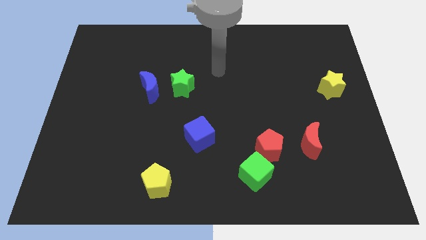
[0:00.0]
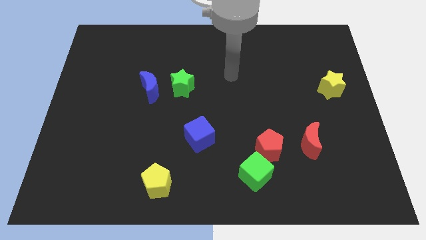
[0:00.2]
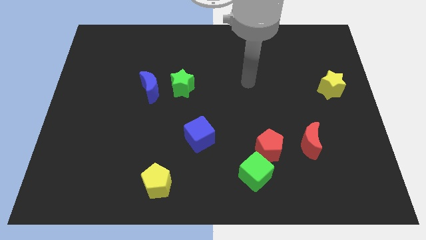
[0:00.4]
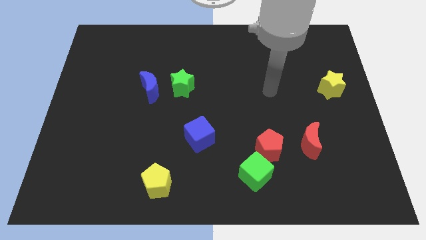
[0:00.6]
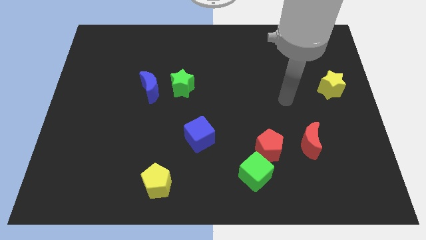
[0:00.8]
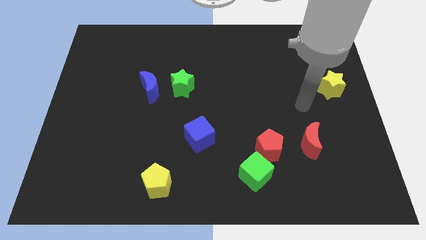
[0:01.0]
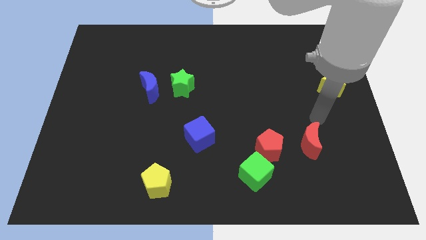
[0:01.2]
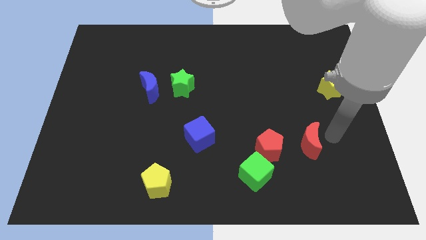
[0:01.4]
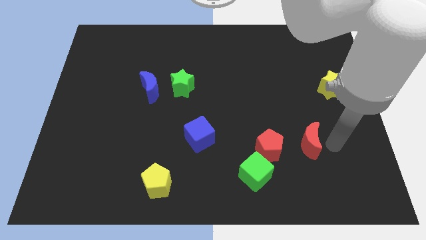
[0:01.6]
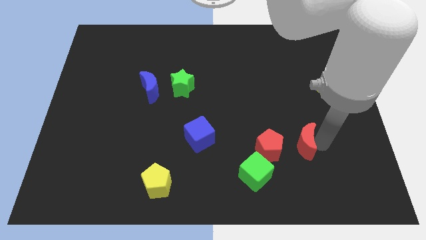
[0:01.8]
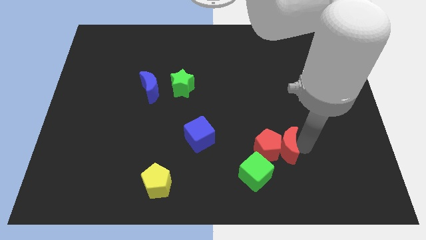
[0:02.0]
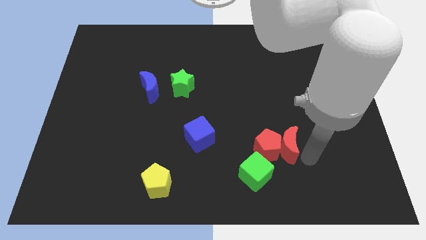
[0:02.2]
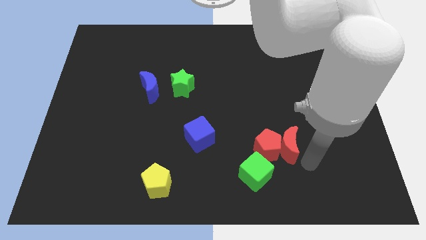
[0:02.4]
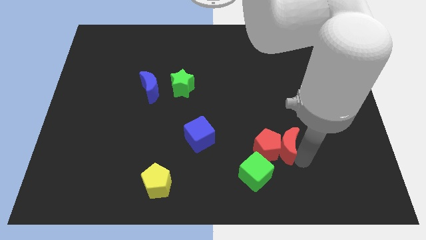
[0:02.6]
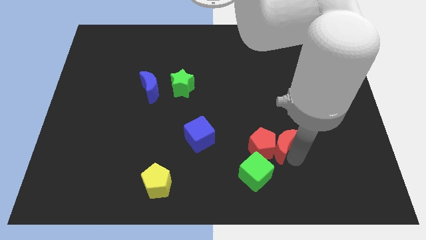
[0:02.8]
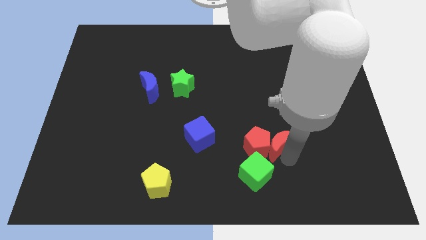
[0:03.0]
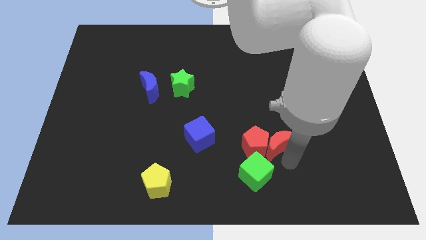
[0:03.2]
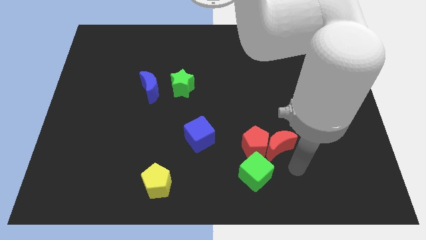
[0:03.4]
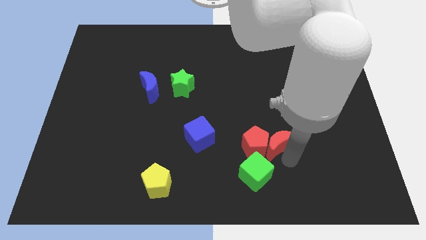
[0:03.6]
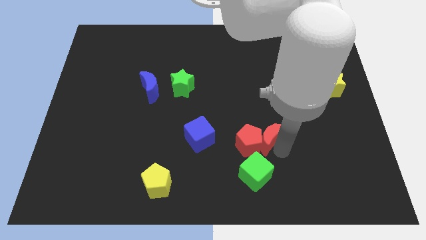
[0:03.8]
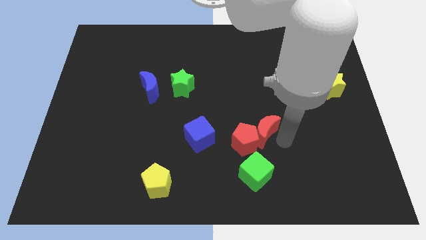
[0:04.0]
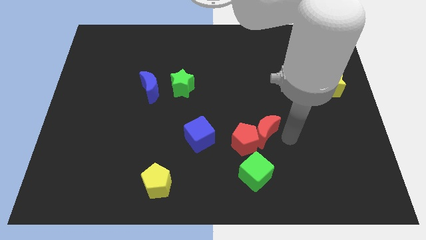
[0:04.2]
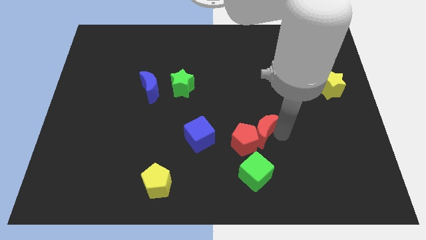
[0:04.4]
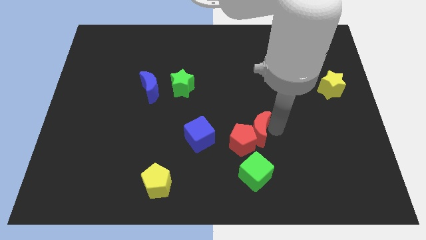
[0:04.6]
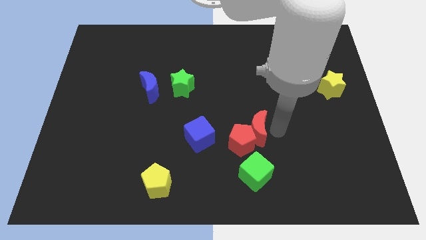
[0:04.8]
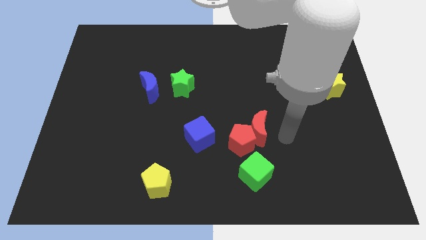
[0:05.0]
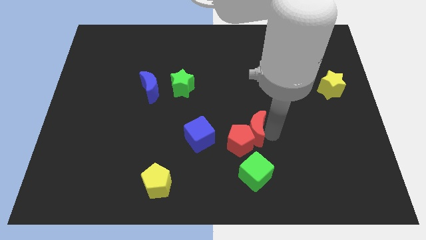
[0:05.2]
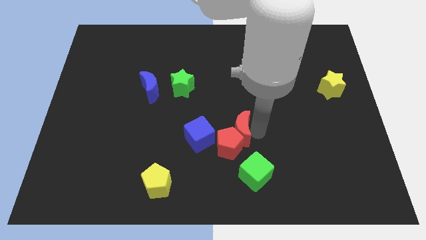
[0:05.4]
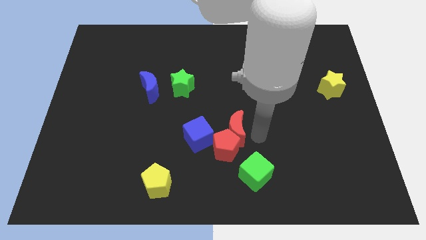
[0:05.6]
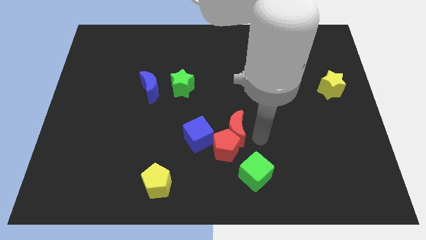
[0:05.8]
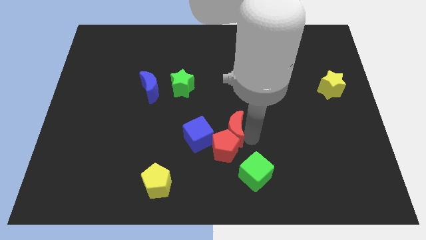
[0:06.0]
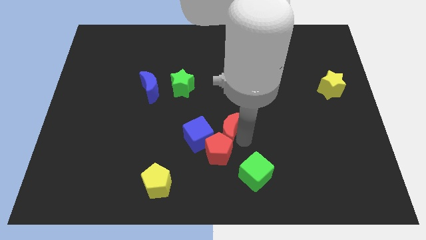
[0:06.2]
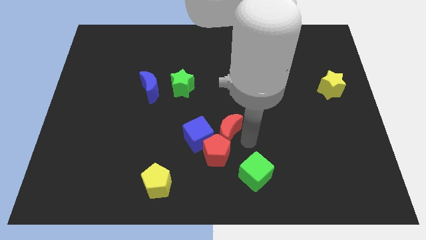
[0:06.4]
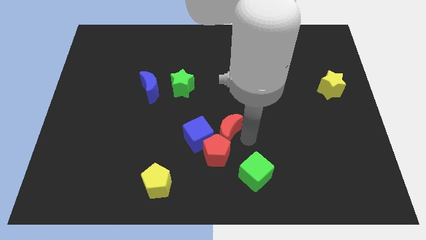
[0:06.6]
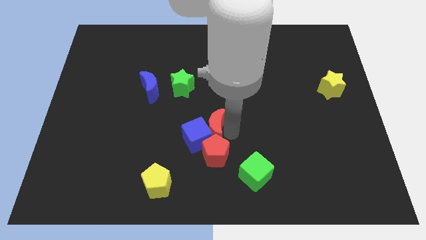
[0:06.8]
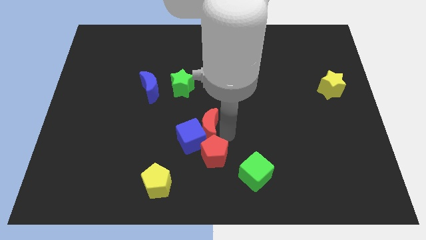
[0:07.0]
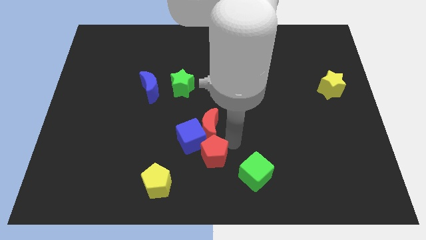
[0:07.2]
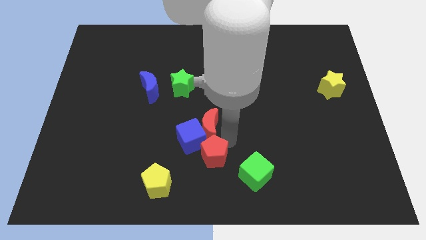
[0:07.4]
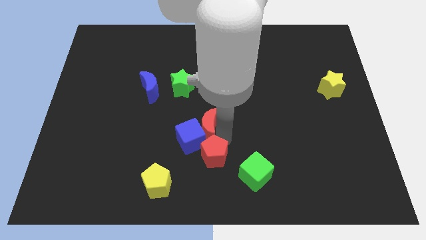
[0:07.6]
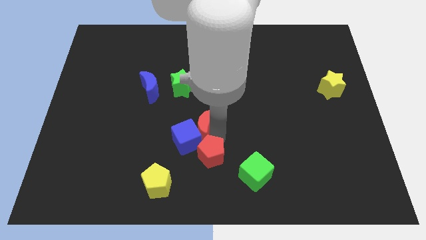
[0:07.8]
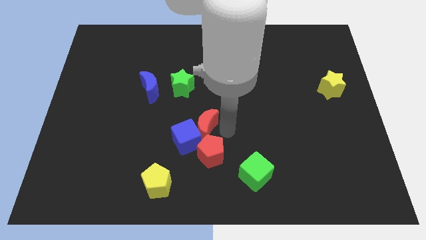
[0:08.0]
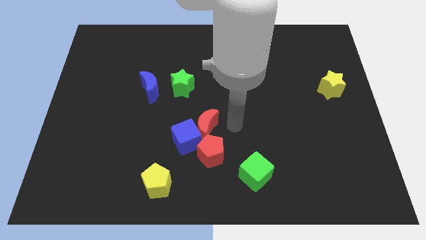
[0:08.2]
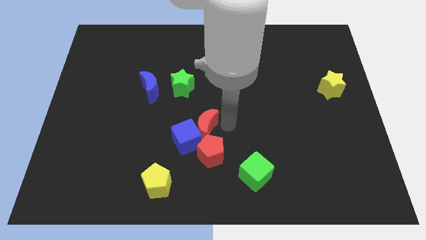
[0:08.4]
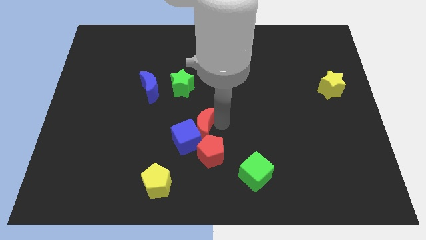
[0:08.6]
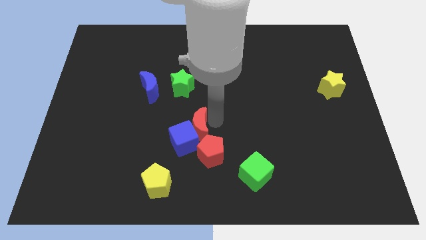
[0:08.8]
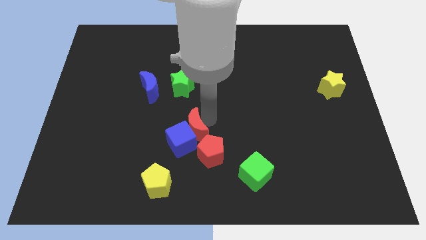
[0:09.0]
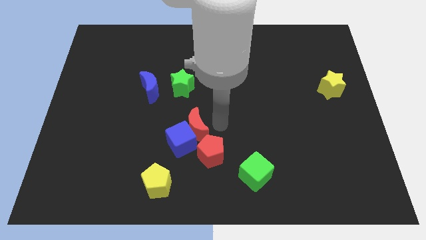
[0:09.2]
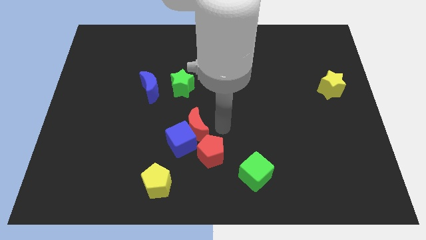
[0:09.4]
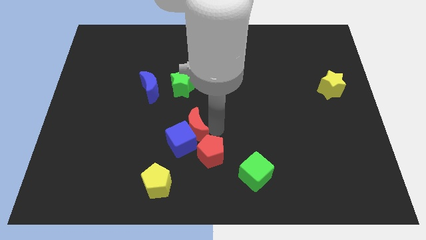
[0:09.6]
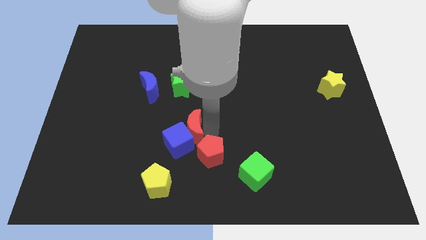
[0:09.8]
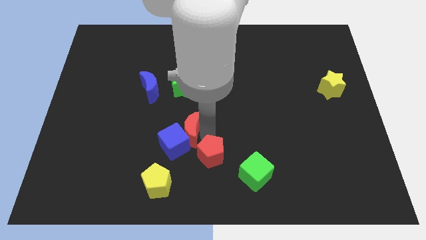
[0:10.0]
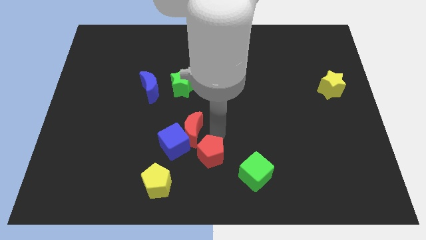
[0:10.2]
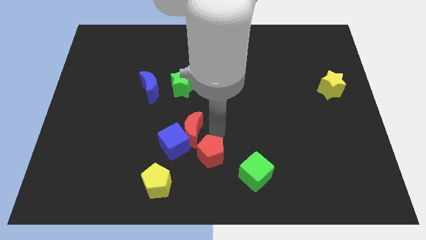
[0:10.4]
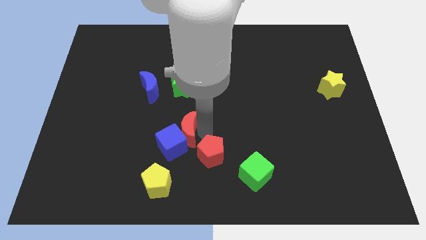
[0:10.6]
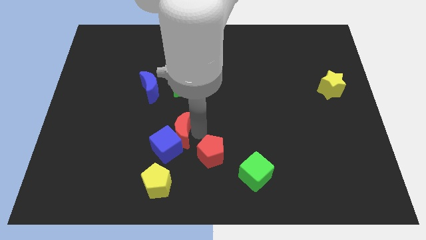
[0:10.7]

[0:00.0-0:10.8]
put the red moon to the top side of the yellow pentagon

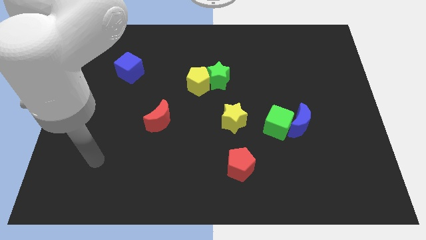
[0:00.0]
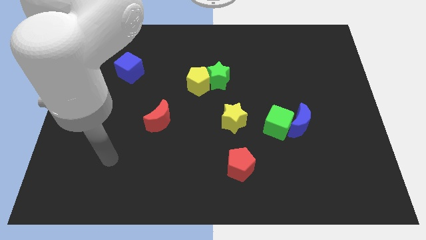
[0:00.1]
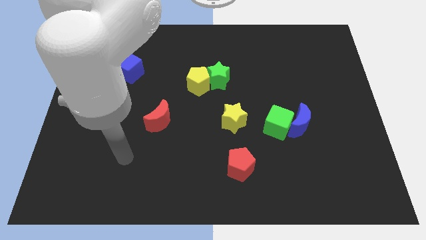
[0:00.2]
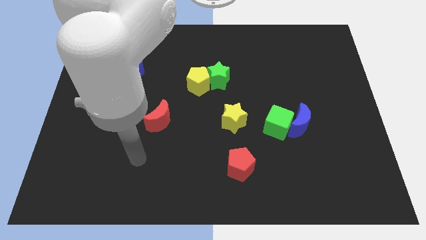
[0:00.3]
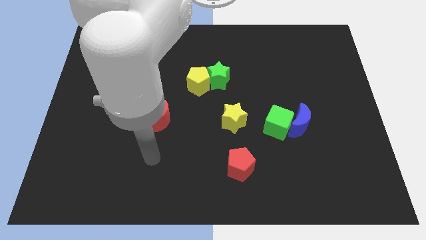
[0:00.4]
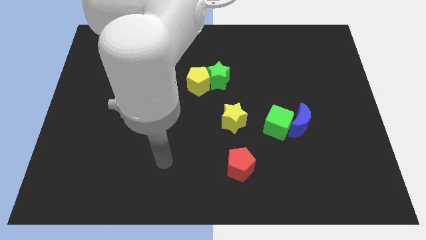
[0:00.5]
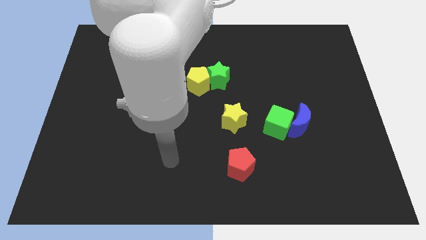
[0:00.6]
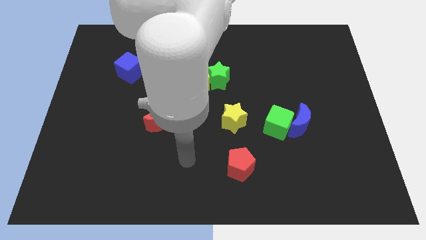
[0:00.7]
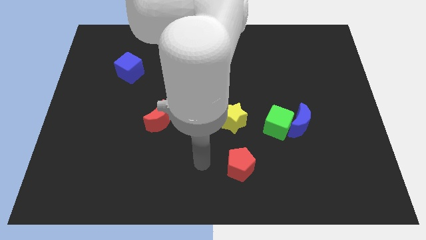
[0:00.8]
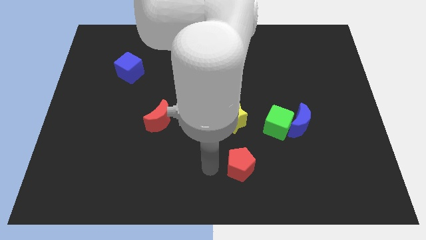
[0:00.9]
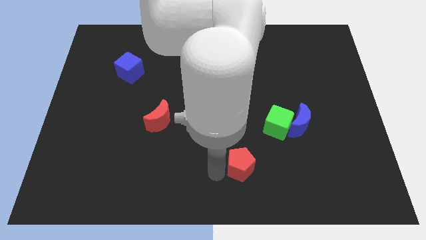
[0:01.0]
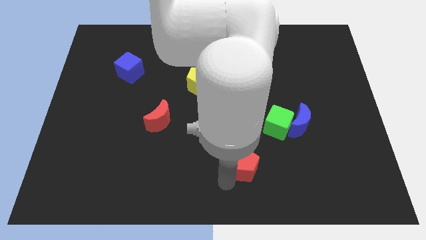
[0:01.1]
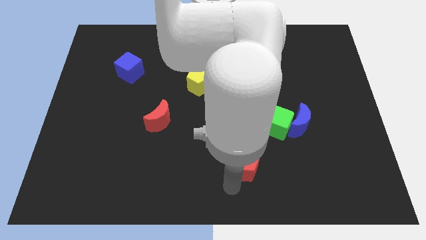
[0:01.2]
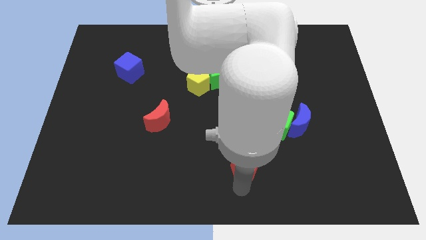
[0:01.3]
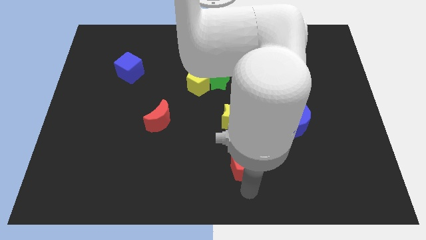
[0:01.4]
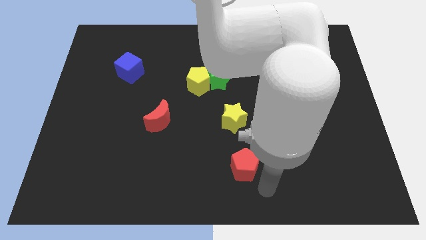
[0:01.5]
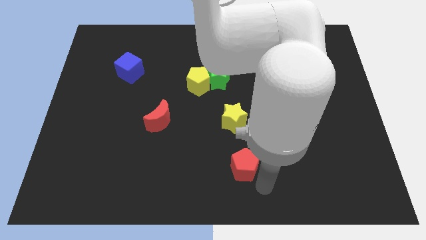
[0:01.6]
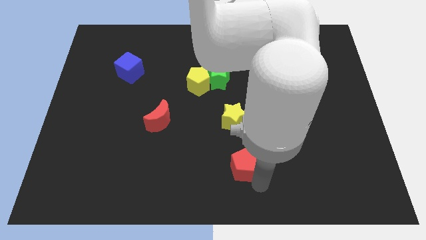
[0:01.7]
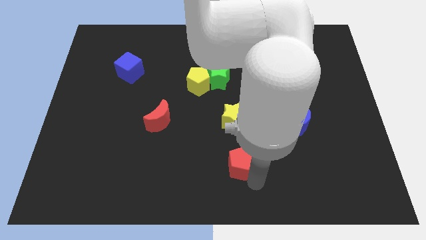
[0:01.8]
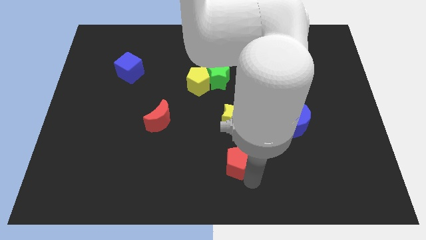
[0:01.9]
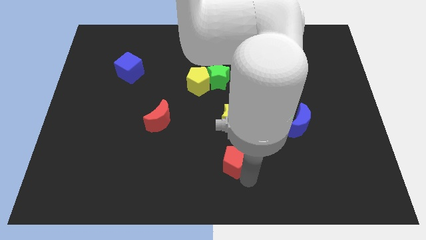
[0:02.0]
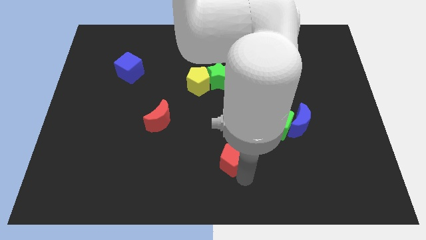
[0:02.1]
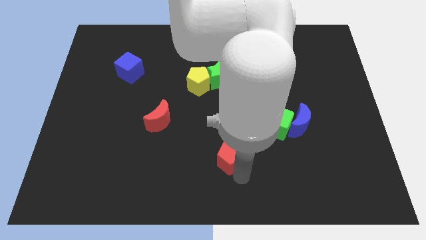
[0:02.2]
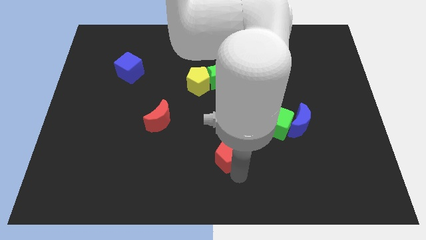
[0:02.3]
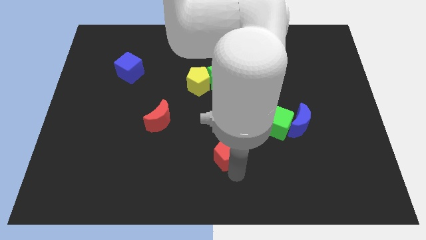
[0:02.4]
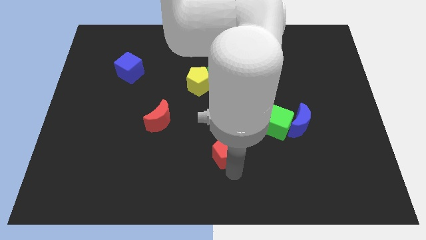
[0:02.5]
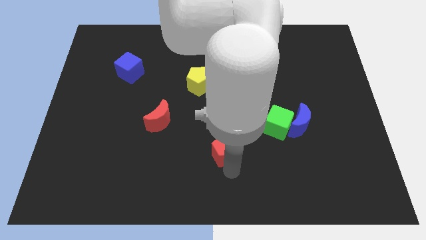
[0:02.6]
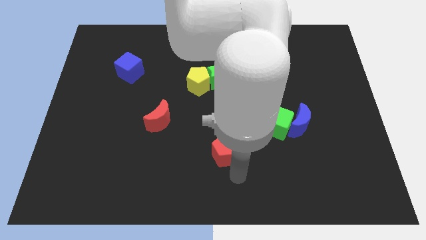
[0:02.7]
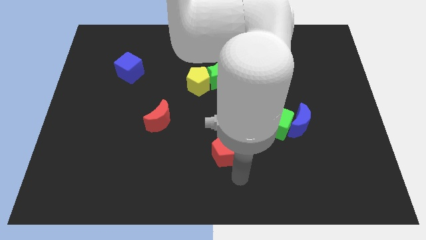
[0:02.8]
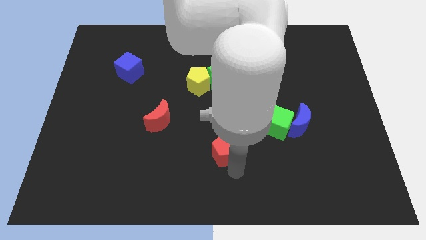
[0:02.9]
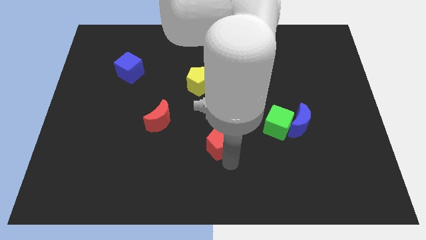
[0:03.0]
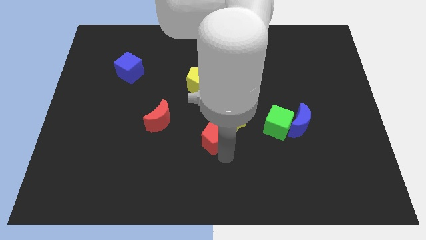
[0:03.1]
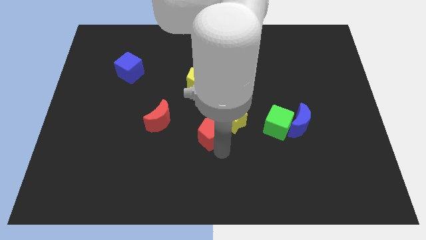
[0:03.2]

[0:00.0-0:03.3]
push the red pentagon left of the yellow star
